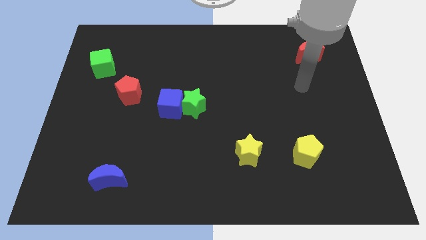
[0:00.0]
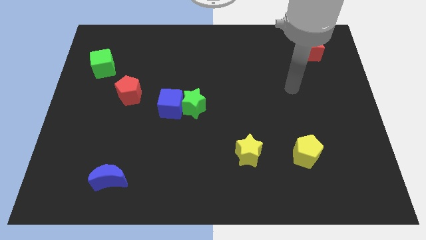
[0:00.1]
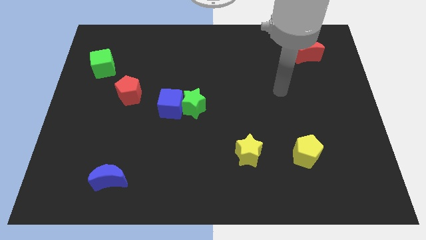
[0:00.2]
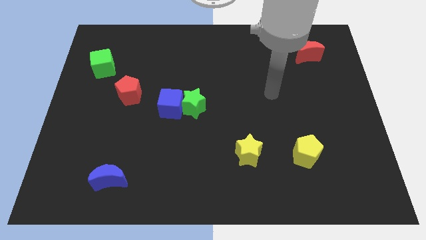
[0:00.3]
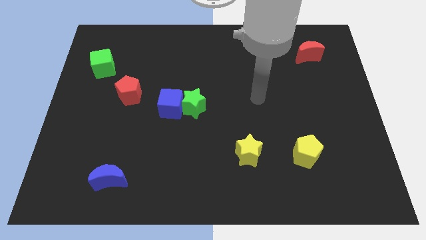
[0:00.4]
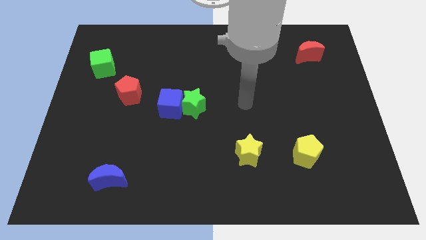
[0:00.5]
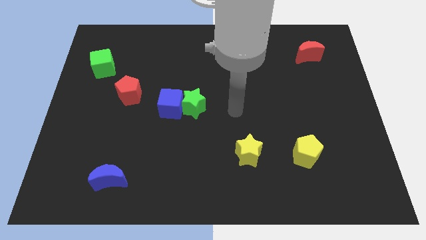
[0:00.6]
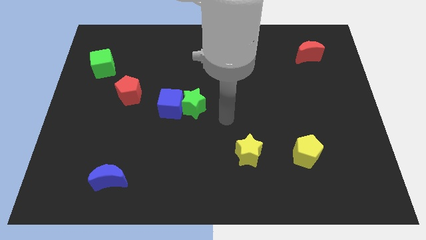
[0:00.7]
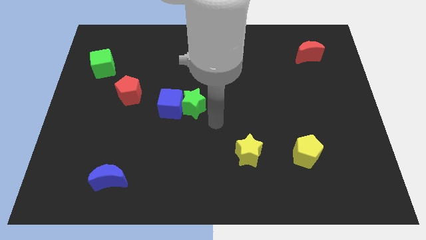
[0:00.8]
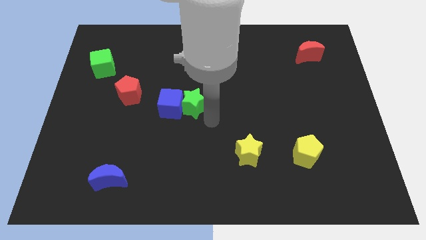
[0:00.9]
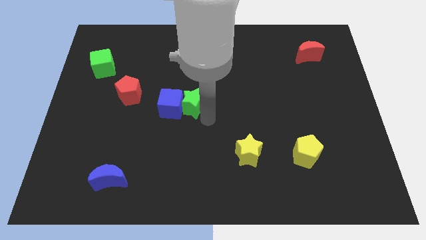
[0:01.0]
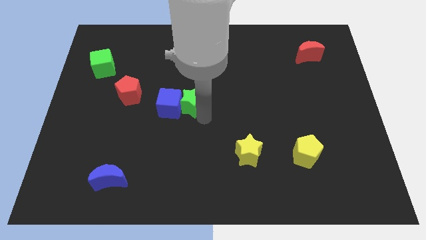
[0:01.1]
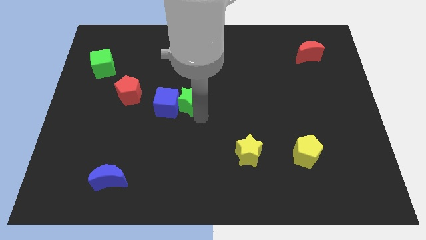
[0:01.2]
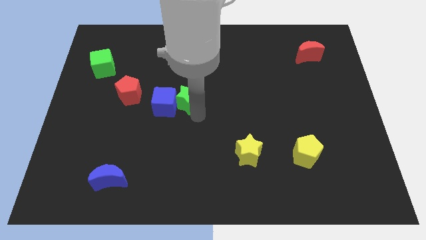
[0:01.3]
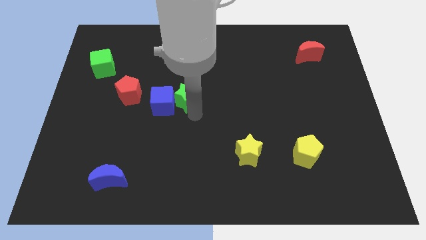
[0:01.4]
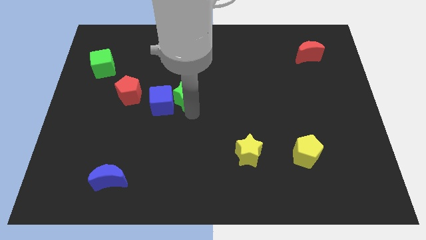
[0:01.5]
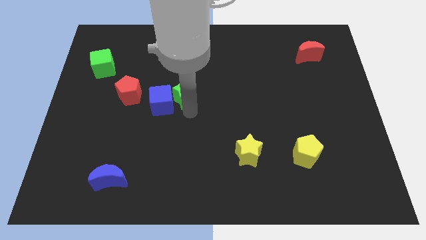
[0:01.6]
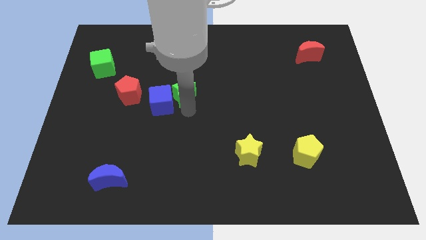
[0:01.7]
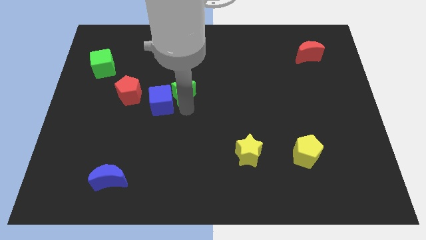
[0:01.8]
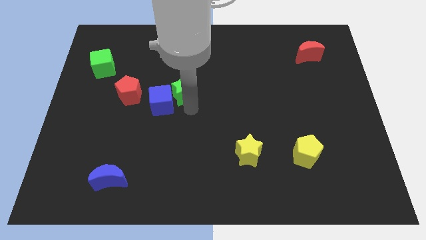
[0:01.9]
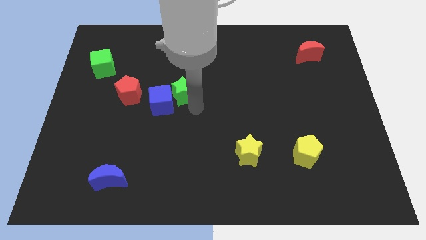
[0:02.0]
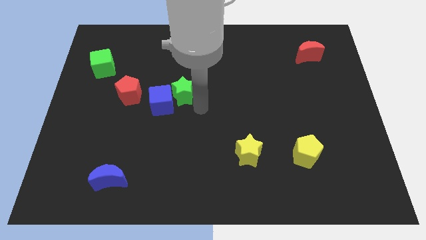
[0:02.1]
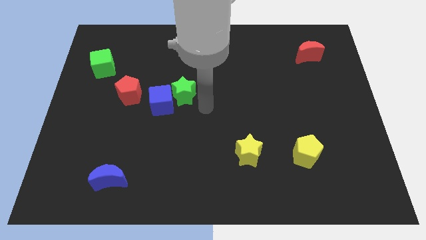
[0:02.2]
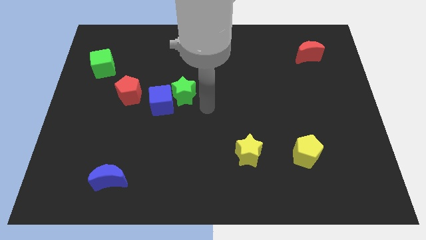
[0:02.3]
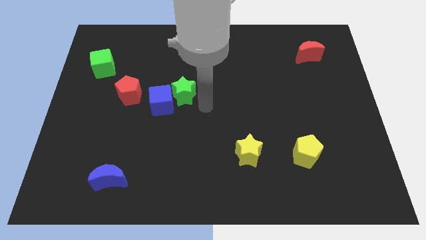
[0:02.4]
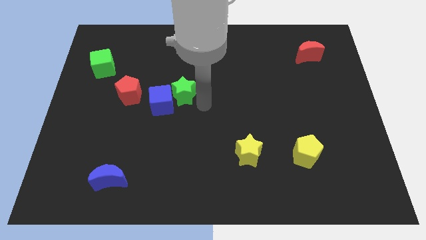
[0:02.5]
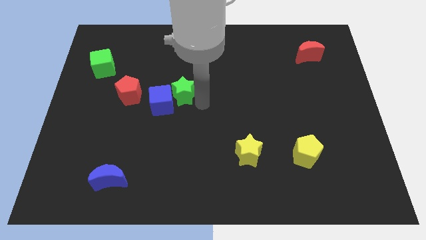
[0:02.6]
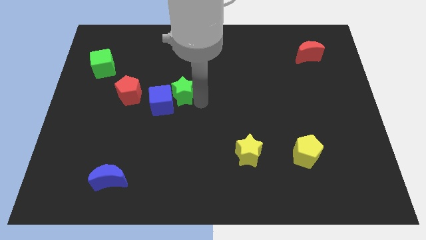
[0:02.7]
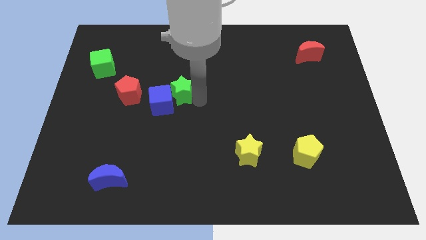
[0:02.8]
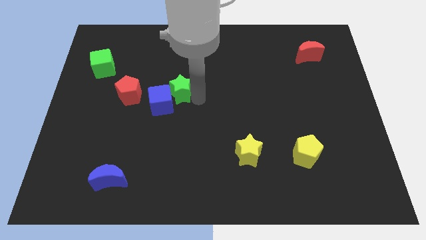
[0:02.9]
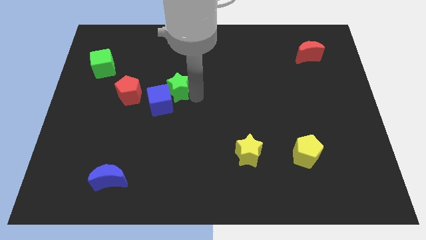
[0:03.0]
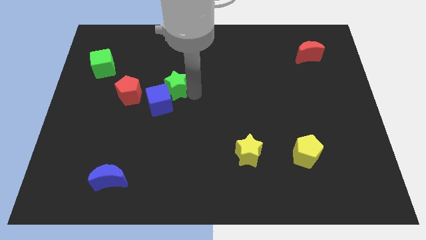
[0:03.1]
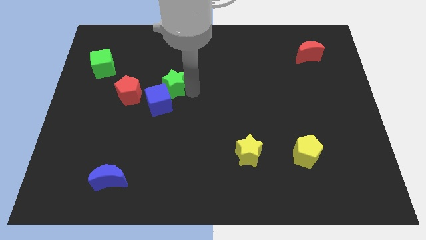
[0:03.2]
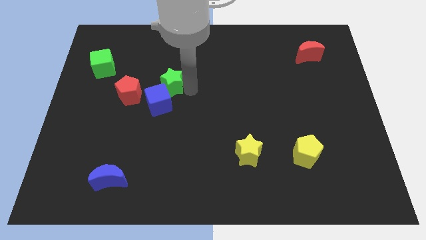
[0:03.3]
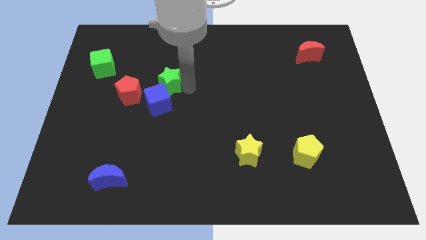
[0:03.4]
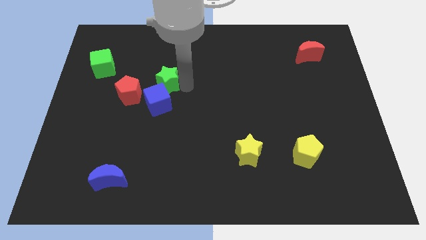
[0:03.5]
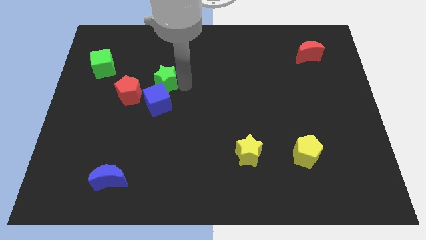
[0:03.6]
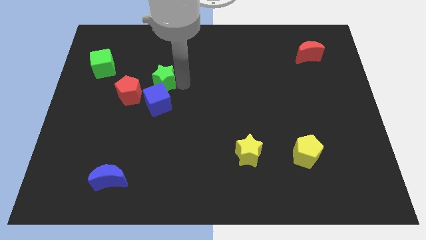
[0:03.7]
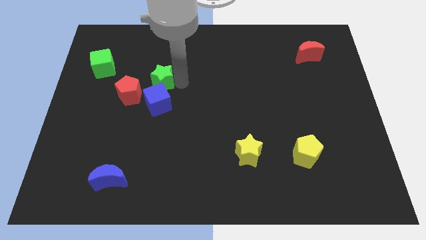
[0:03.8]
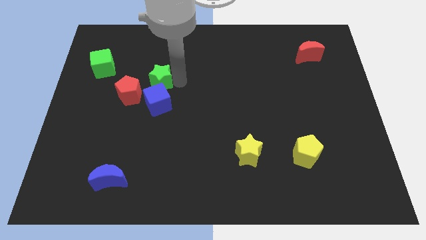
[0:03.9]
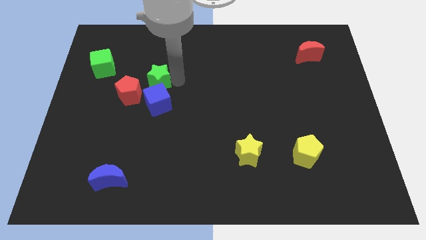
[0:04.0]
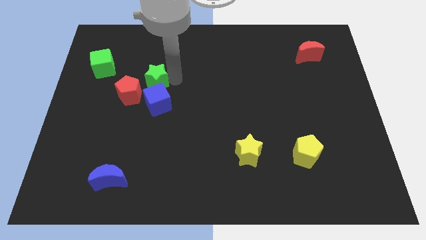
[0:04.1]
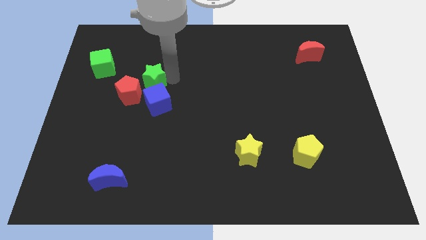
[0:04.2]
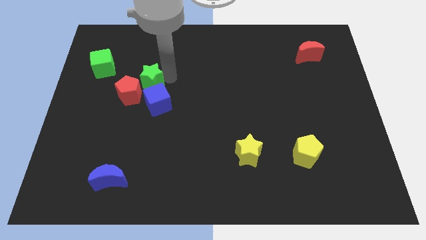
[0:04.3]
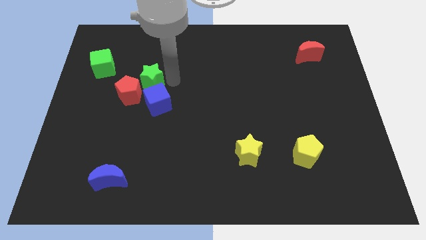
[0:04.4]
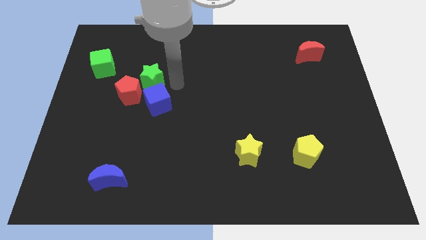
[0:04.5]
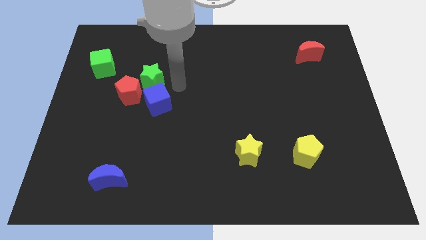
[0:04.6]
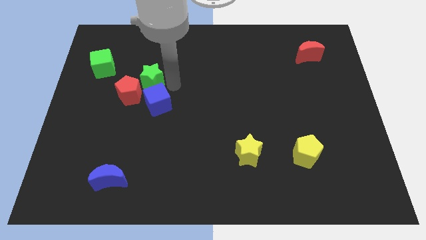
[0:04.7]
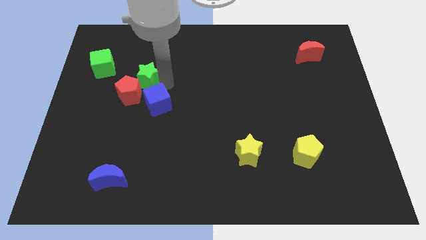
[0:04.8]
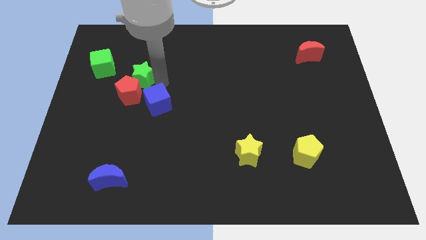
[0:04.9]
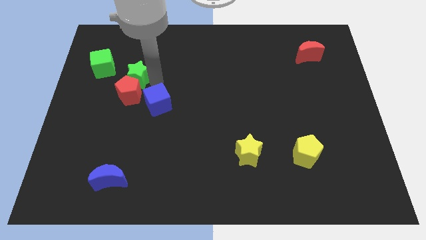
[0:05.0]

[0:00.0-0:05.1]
push the green star to the top left side of the red pentagon

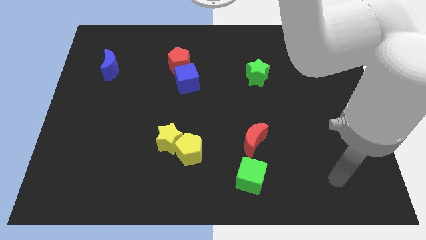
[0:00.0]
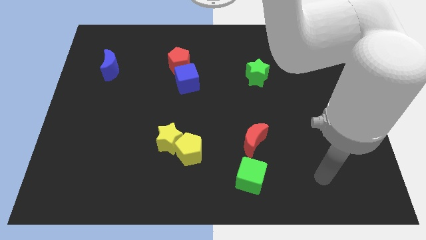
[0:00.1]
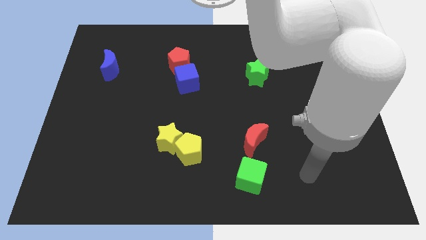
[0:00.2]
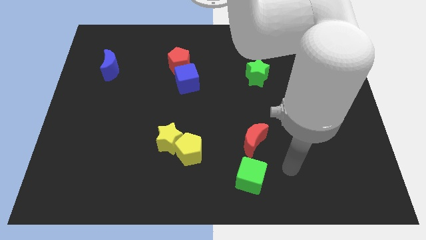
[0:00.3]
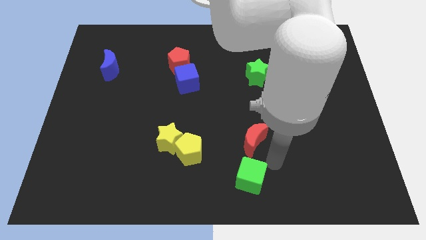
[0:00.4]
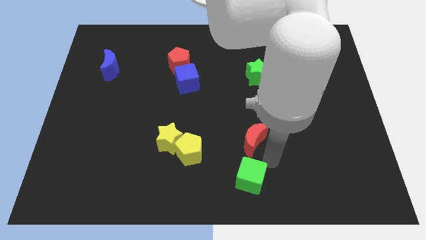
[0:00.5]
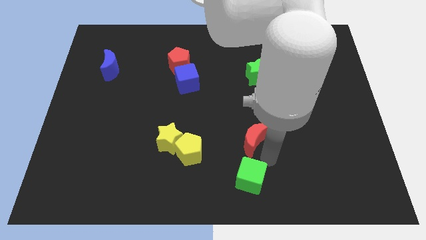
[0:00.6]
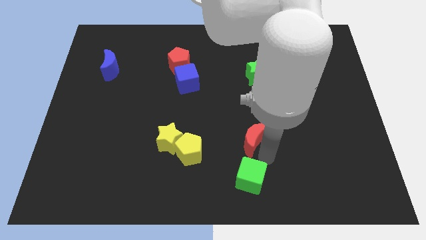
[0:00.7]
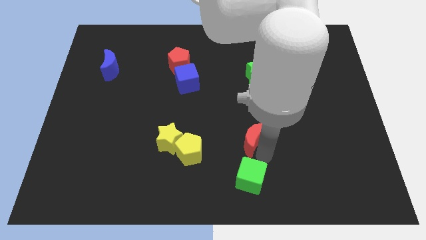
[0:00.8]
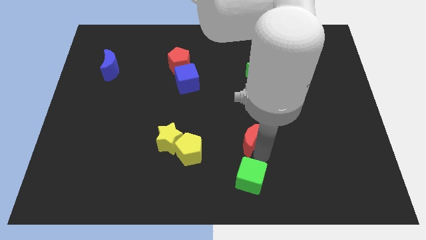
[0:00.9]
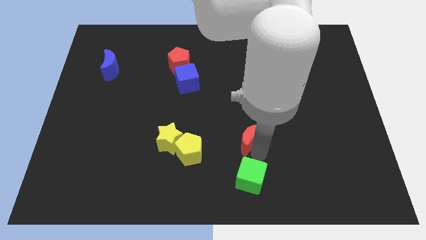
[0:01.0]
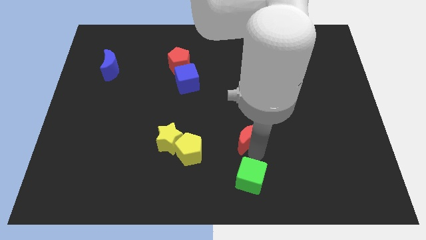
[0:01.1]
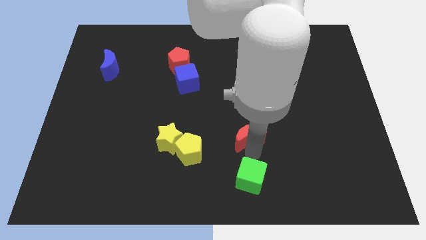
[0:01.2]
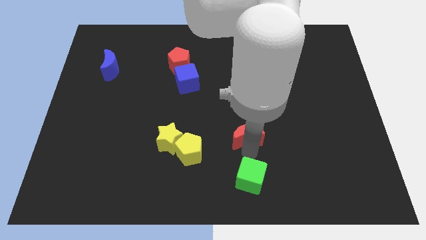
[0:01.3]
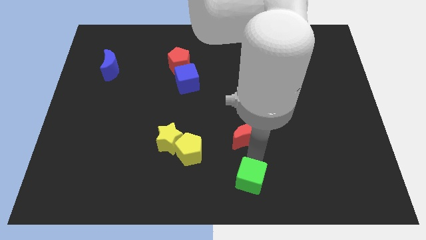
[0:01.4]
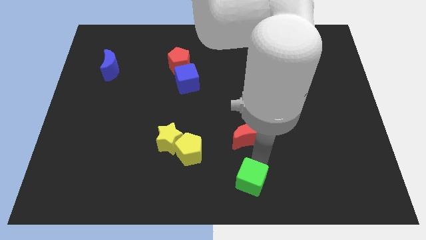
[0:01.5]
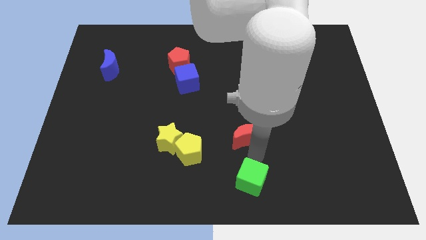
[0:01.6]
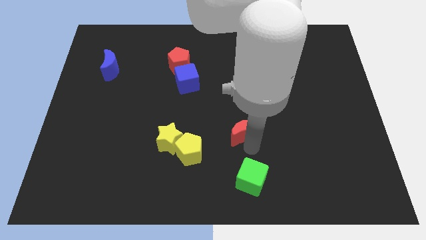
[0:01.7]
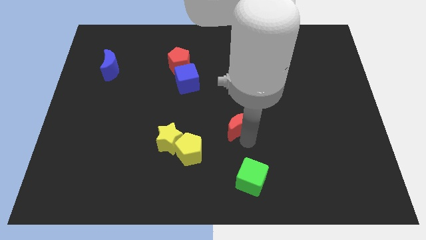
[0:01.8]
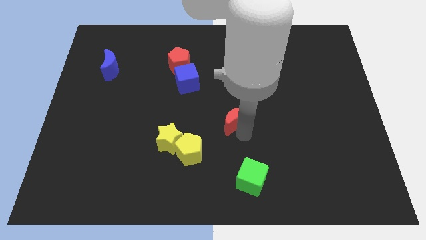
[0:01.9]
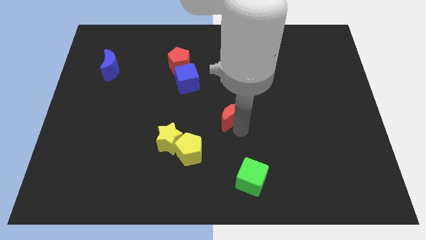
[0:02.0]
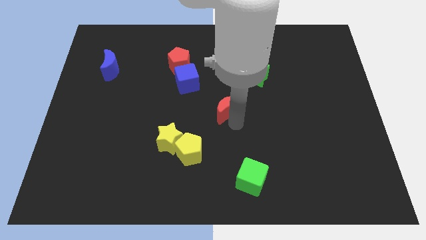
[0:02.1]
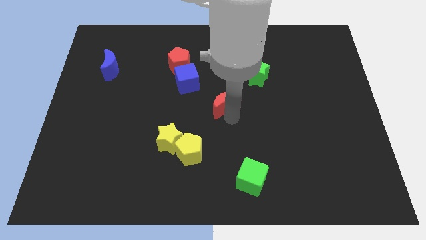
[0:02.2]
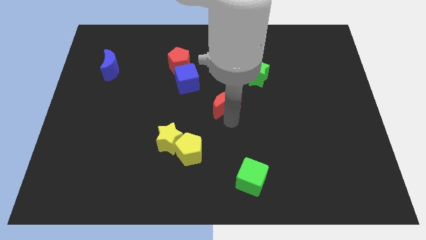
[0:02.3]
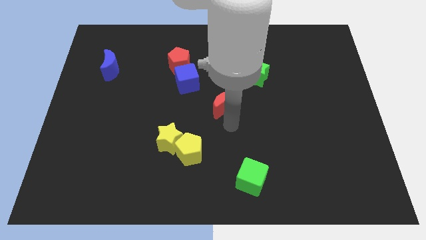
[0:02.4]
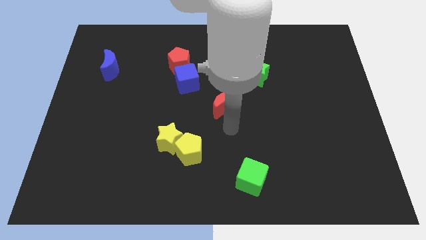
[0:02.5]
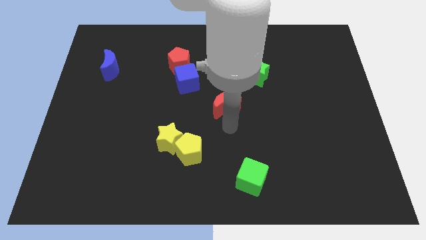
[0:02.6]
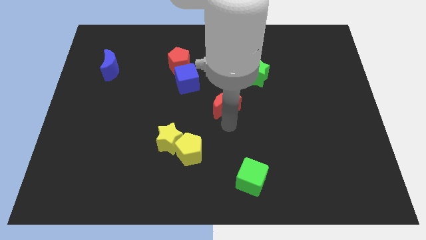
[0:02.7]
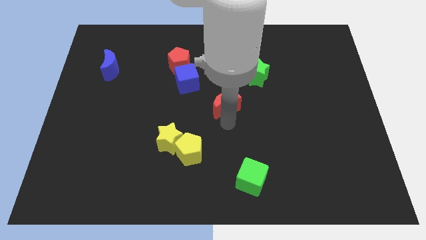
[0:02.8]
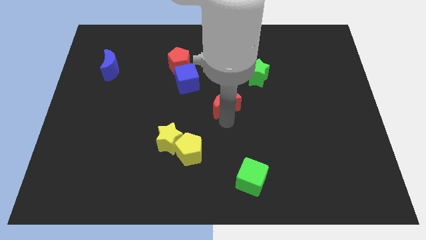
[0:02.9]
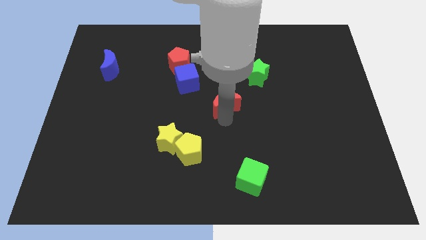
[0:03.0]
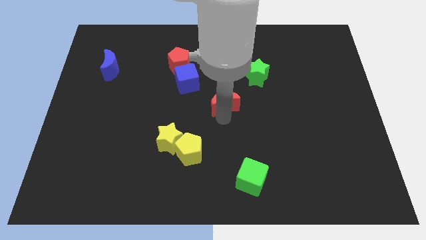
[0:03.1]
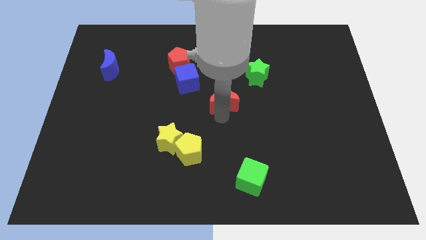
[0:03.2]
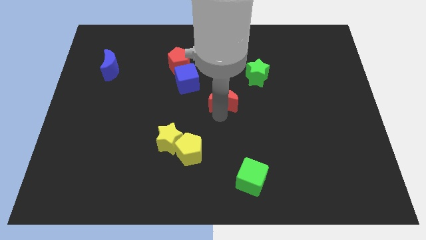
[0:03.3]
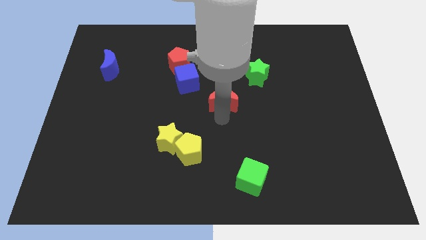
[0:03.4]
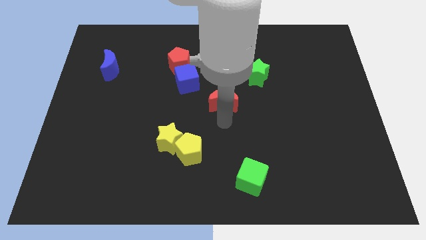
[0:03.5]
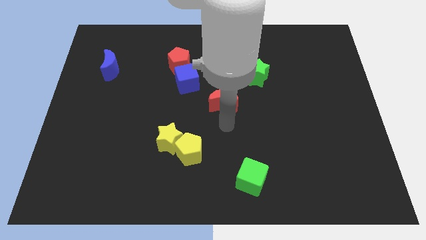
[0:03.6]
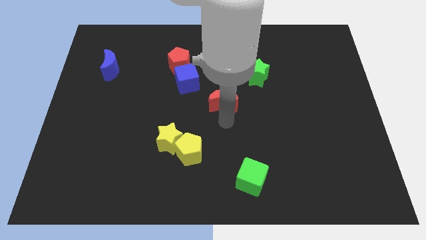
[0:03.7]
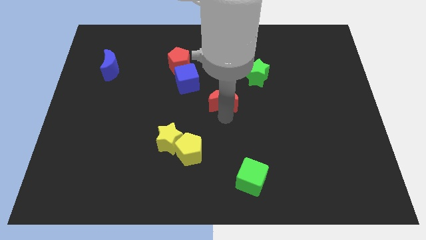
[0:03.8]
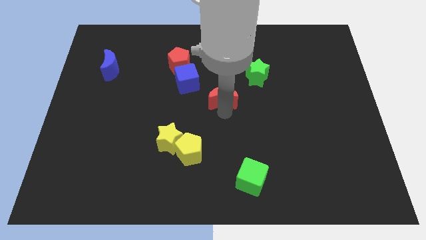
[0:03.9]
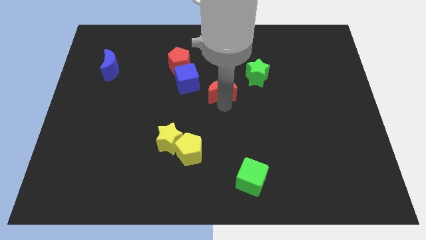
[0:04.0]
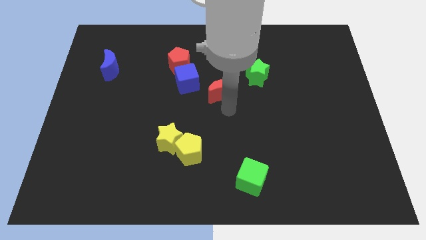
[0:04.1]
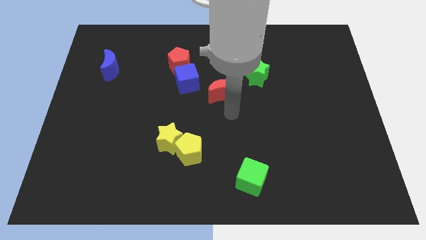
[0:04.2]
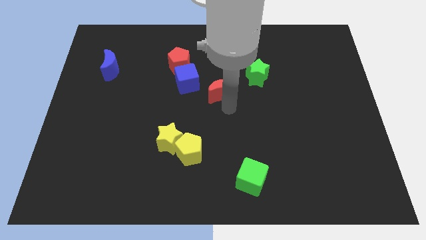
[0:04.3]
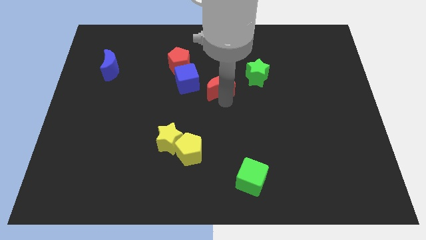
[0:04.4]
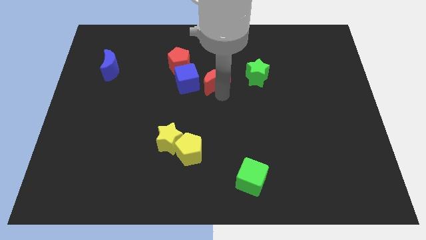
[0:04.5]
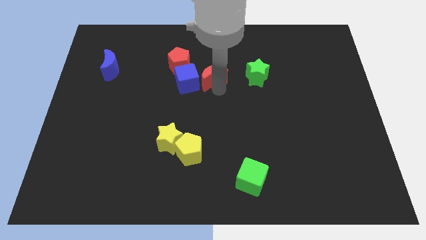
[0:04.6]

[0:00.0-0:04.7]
put the red moon to the top right side of the blue cube
